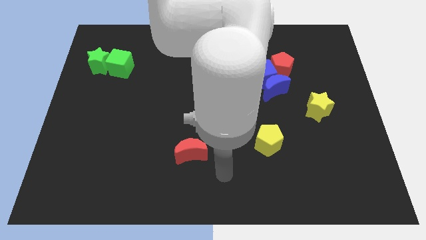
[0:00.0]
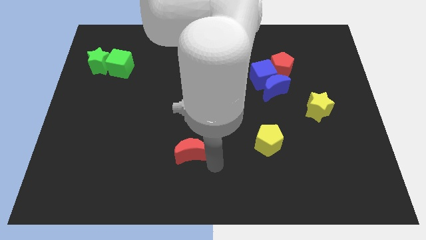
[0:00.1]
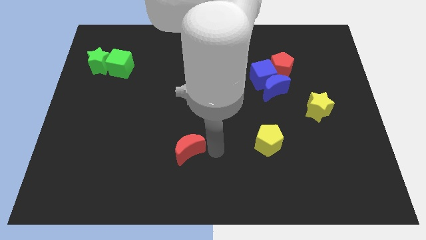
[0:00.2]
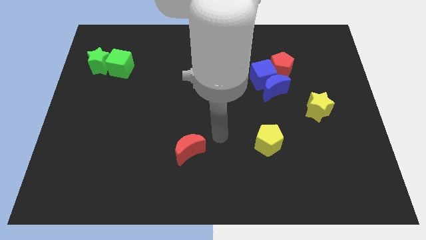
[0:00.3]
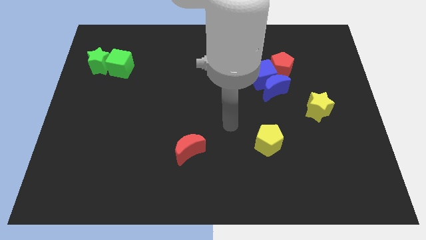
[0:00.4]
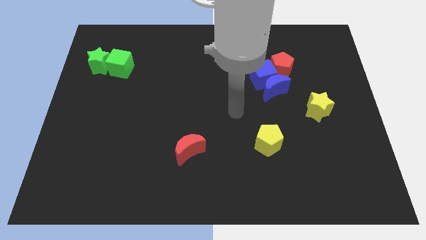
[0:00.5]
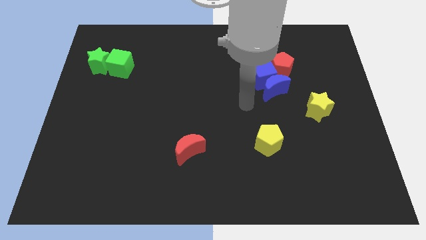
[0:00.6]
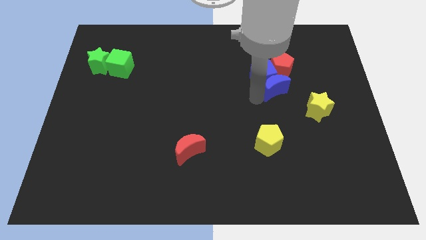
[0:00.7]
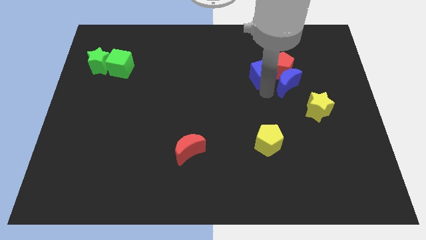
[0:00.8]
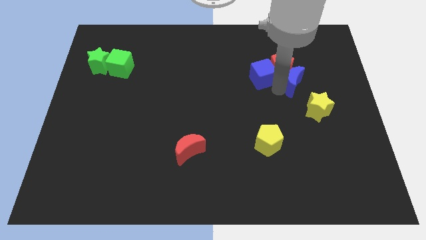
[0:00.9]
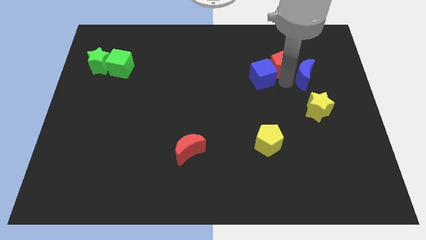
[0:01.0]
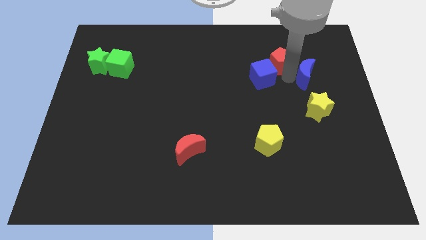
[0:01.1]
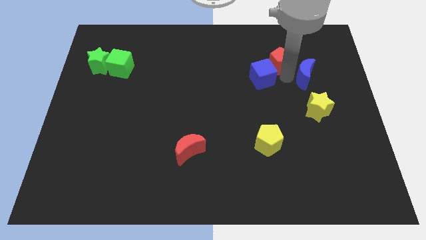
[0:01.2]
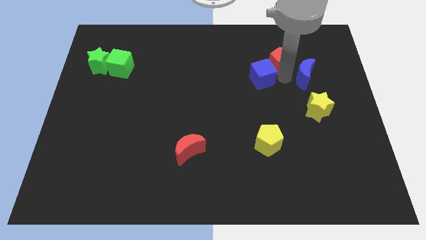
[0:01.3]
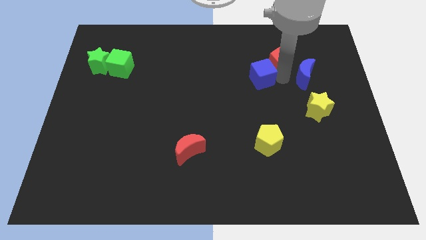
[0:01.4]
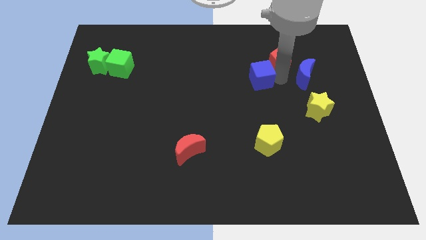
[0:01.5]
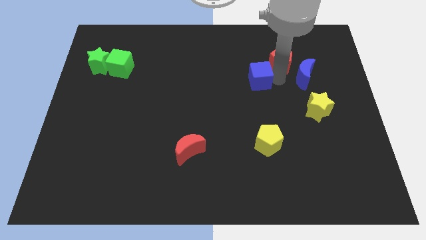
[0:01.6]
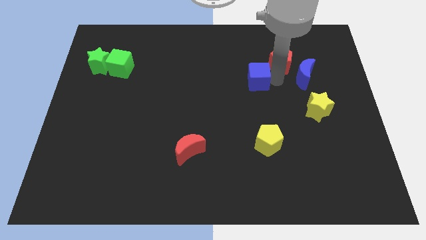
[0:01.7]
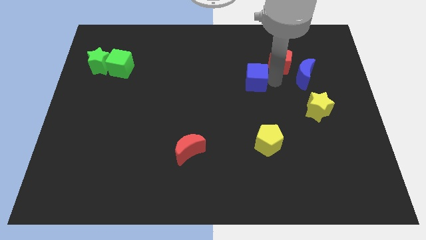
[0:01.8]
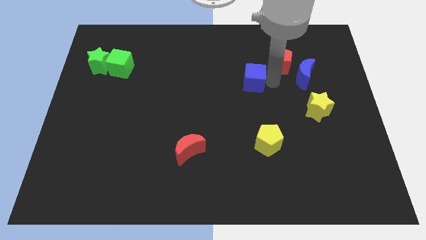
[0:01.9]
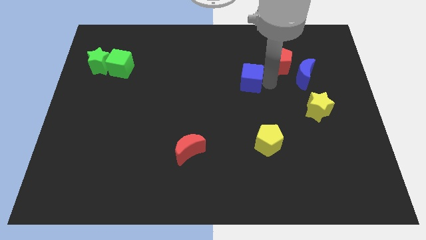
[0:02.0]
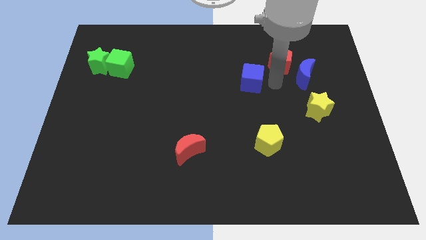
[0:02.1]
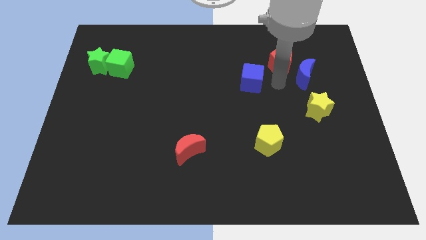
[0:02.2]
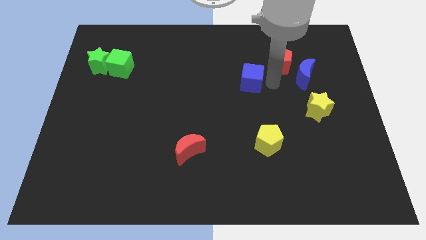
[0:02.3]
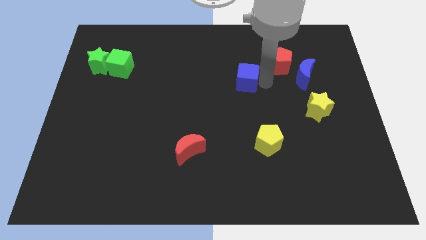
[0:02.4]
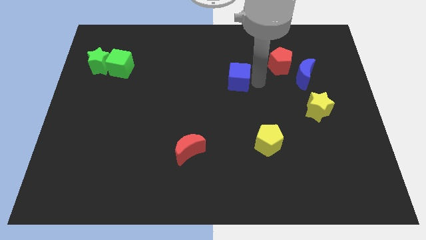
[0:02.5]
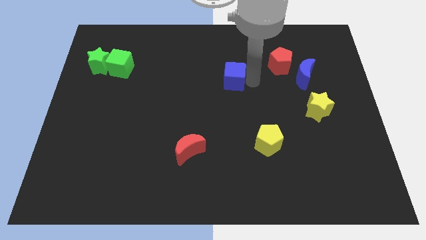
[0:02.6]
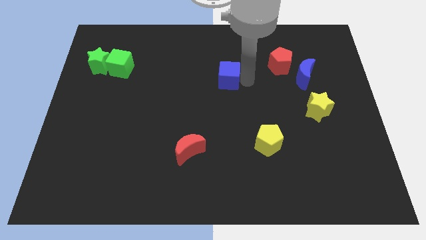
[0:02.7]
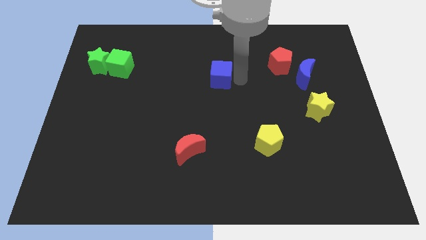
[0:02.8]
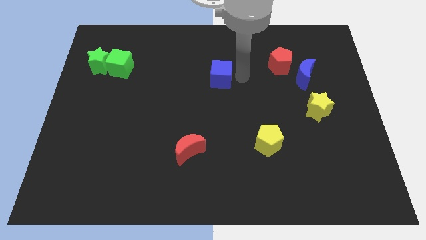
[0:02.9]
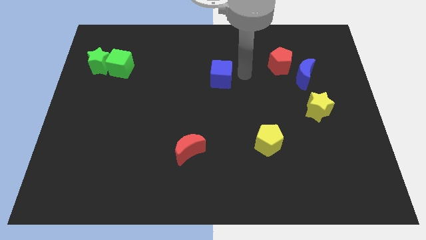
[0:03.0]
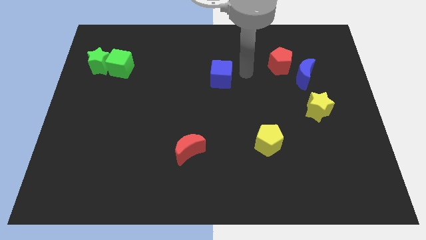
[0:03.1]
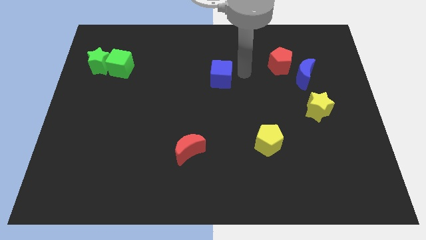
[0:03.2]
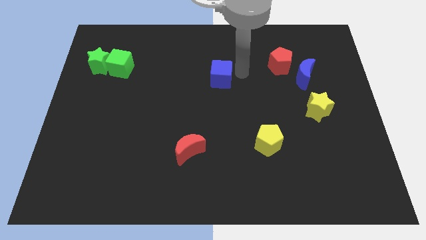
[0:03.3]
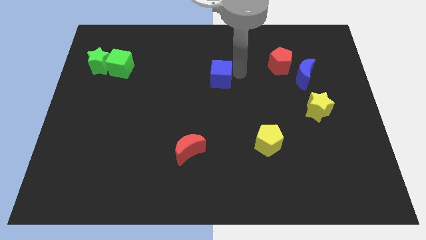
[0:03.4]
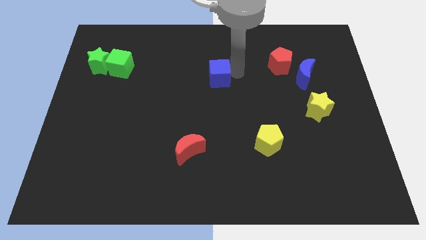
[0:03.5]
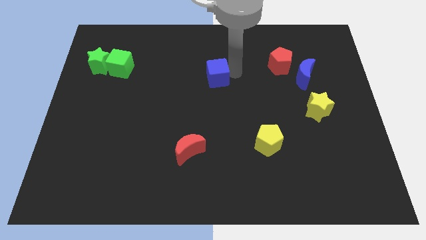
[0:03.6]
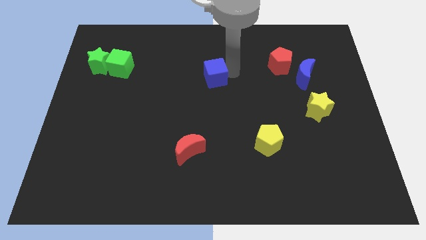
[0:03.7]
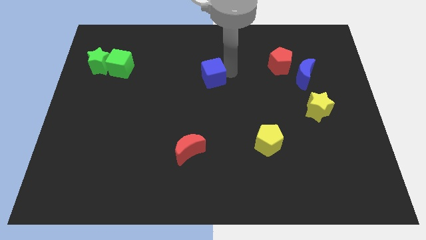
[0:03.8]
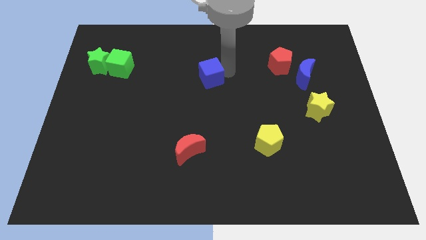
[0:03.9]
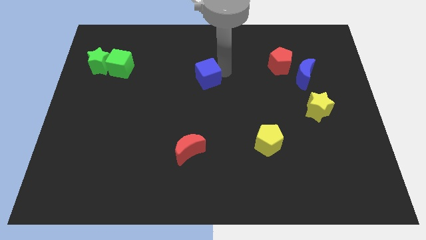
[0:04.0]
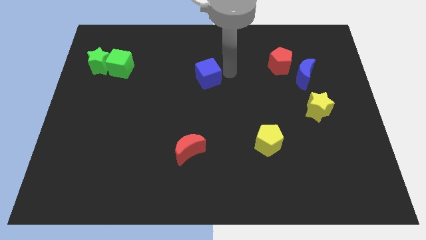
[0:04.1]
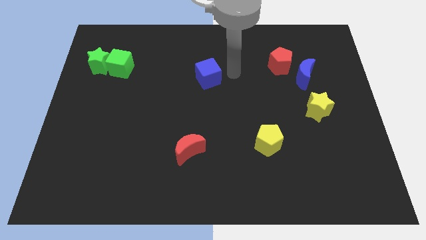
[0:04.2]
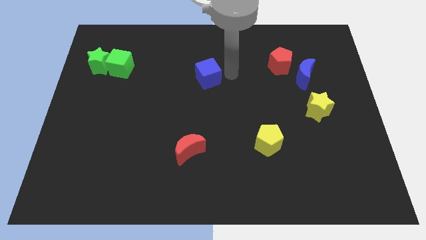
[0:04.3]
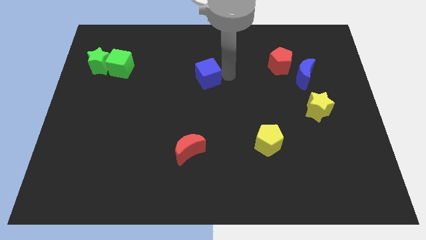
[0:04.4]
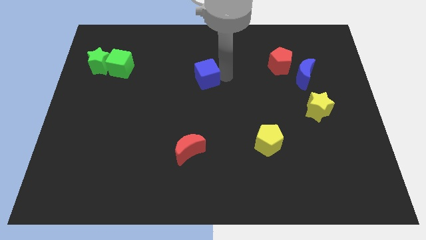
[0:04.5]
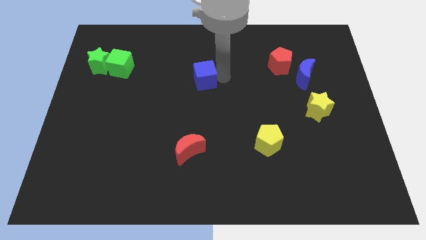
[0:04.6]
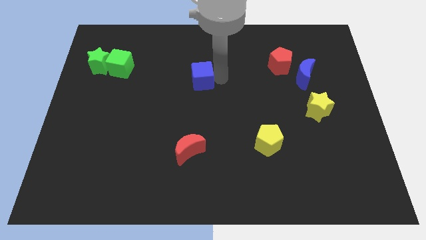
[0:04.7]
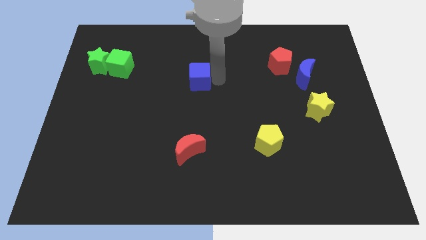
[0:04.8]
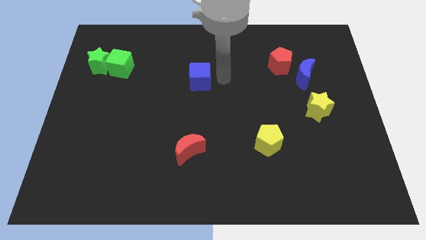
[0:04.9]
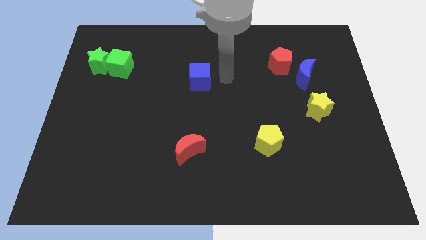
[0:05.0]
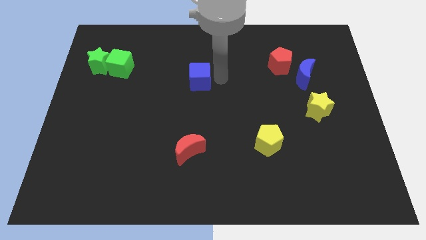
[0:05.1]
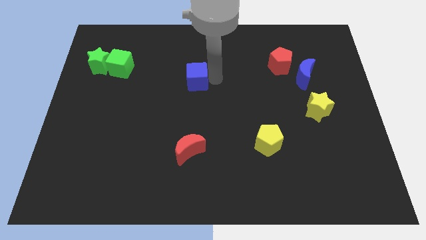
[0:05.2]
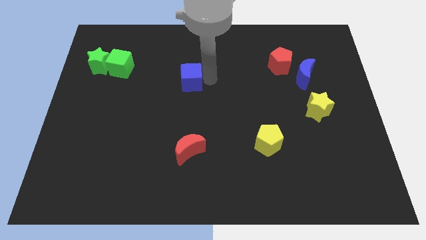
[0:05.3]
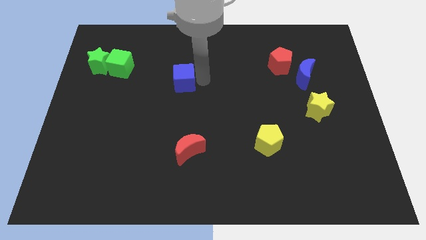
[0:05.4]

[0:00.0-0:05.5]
move the blue cube to the left

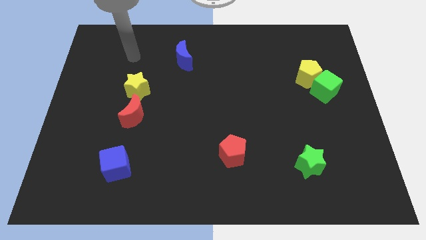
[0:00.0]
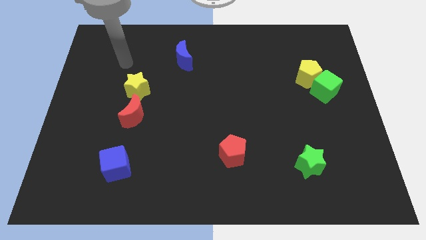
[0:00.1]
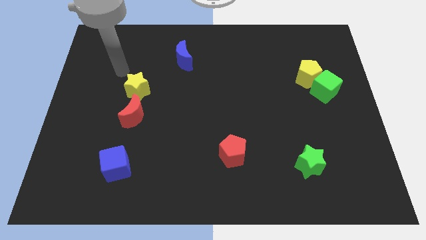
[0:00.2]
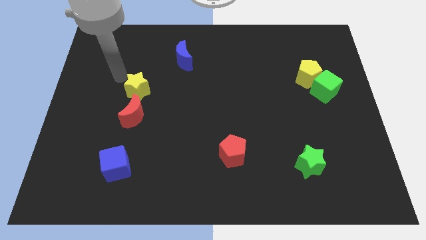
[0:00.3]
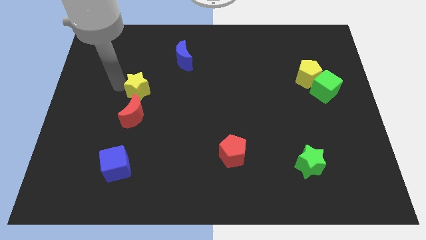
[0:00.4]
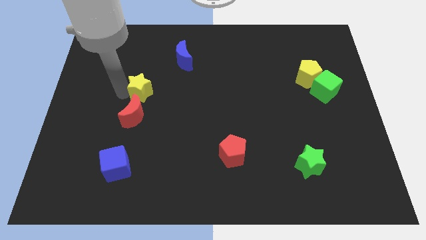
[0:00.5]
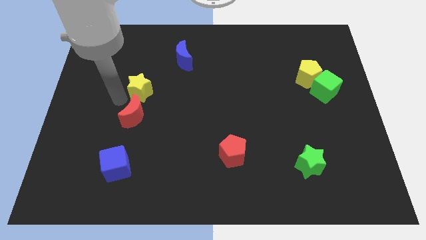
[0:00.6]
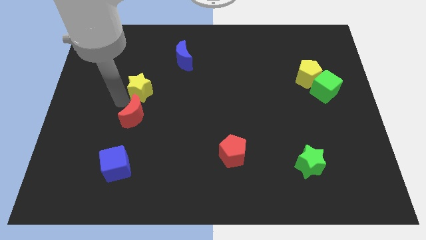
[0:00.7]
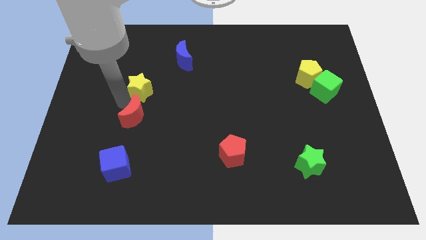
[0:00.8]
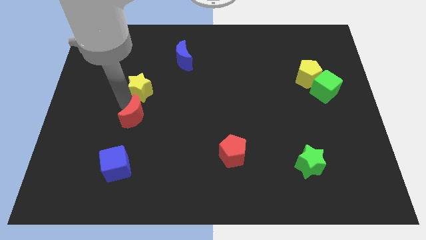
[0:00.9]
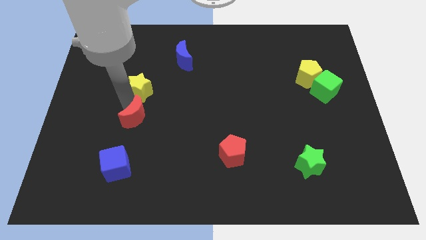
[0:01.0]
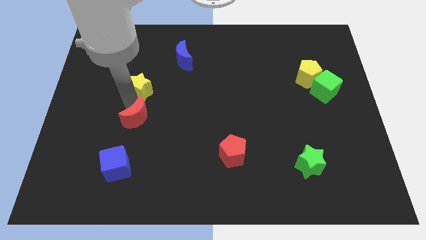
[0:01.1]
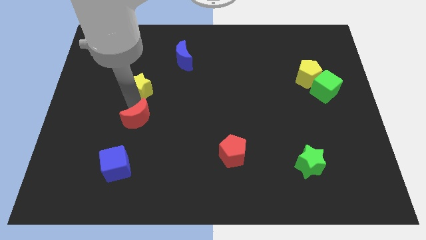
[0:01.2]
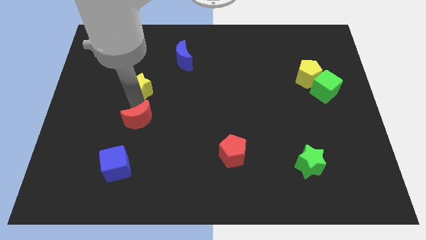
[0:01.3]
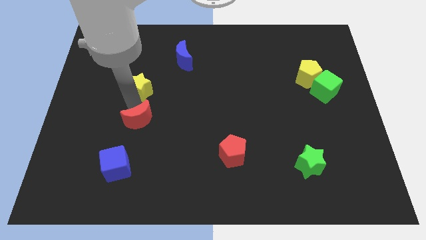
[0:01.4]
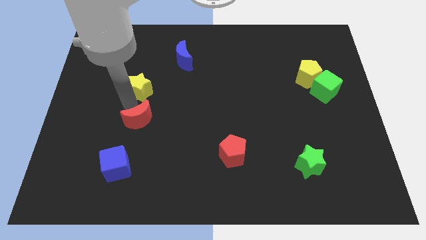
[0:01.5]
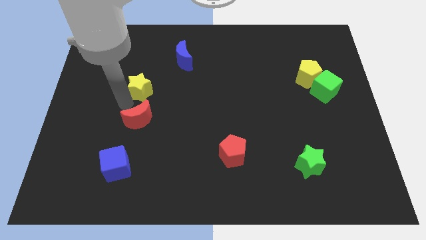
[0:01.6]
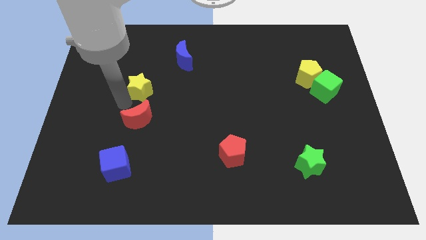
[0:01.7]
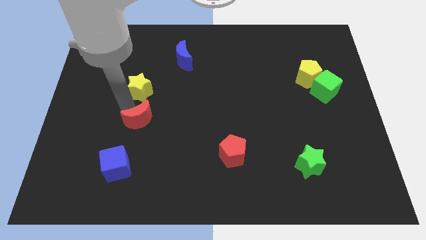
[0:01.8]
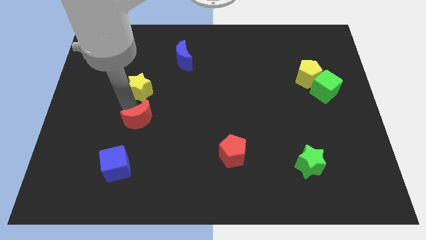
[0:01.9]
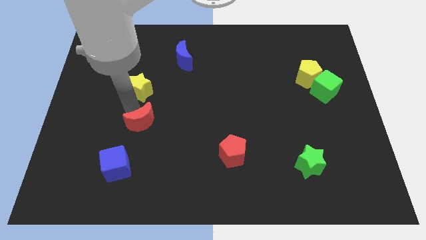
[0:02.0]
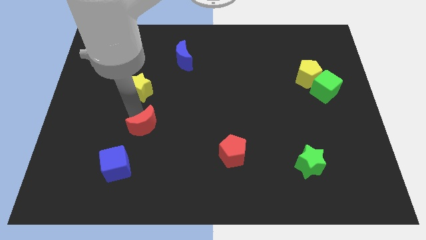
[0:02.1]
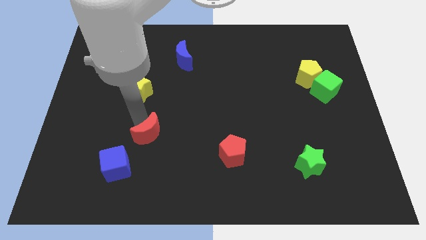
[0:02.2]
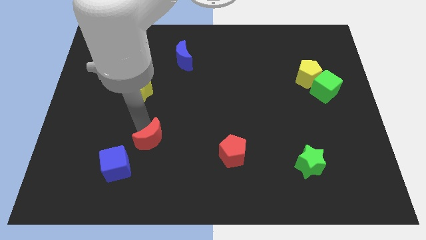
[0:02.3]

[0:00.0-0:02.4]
move the red moon downwards and then to the right slightly

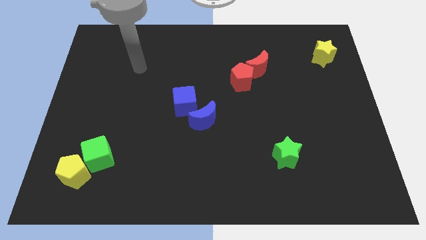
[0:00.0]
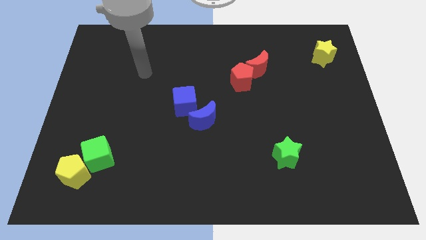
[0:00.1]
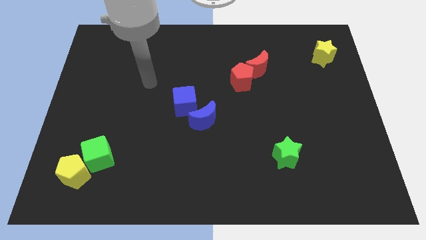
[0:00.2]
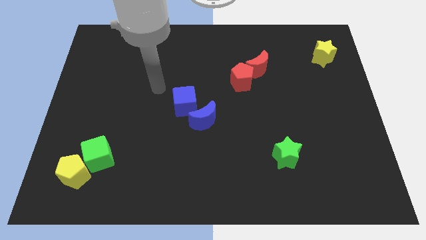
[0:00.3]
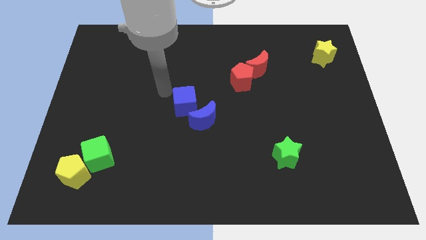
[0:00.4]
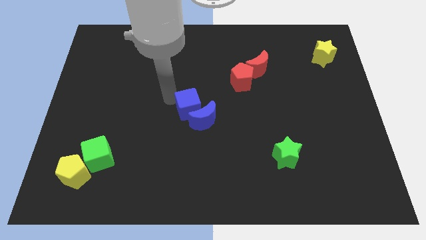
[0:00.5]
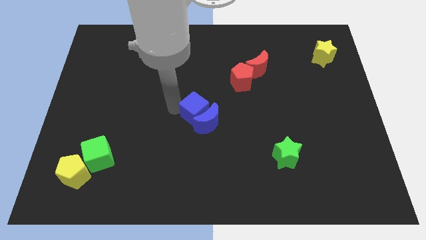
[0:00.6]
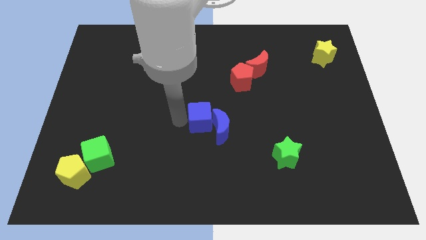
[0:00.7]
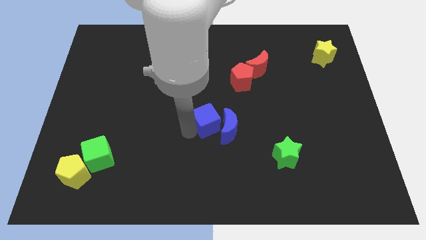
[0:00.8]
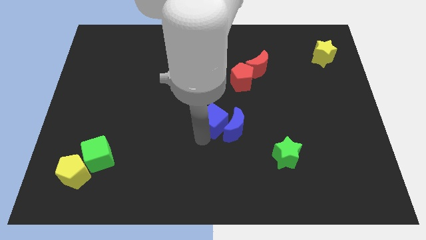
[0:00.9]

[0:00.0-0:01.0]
move the blue moon somewhat to the right
